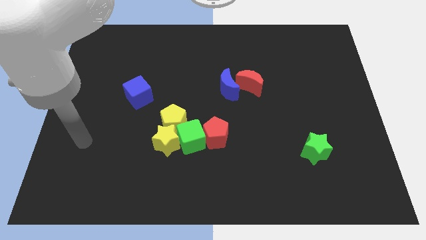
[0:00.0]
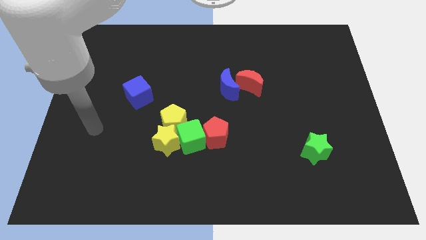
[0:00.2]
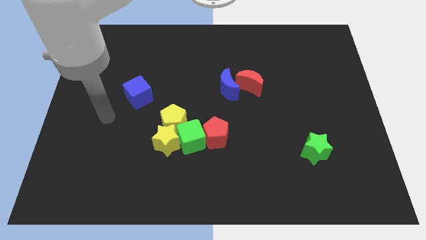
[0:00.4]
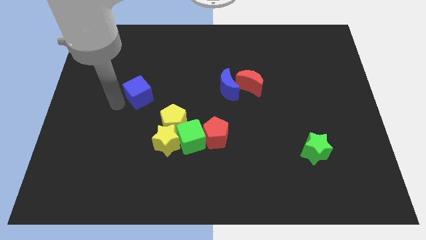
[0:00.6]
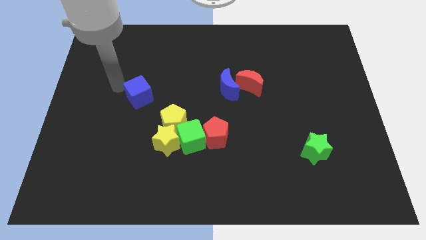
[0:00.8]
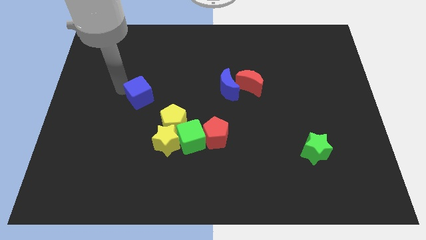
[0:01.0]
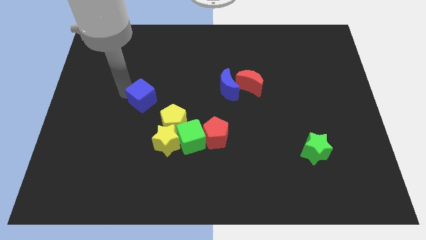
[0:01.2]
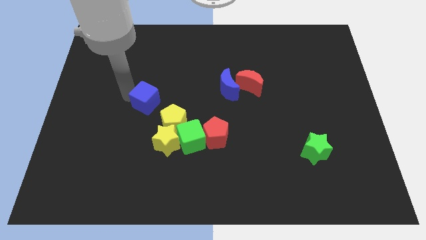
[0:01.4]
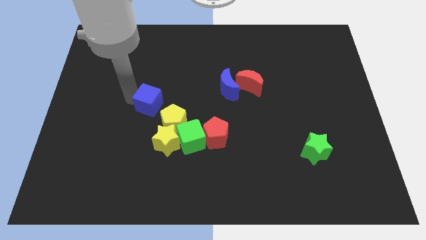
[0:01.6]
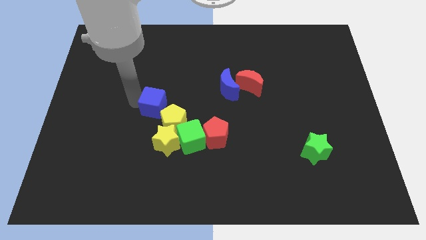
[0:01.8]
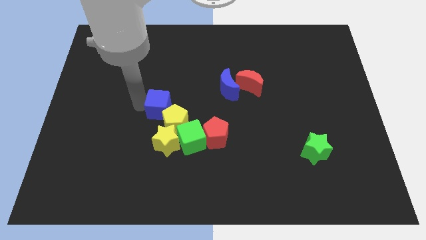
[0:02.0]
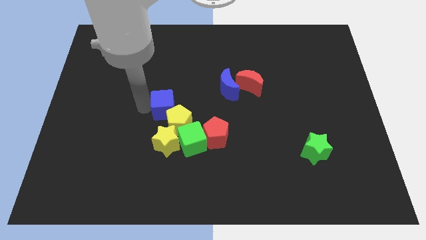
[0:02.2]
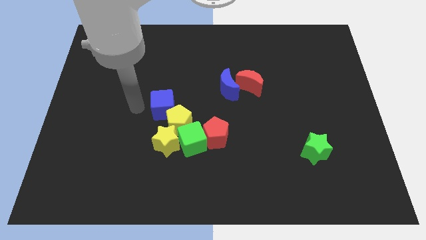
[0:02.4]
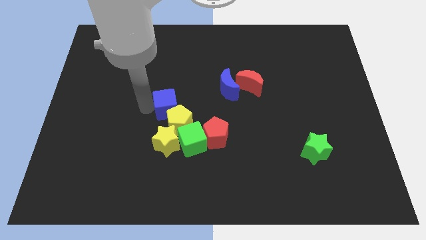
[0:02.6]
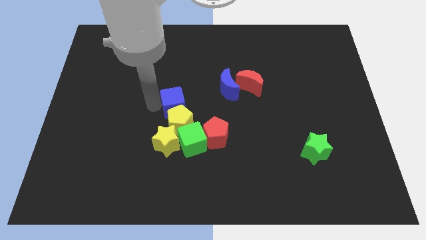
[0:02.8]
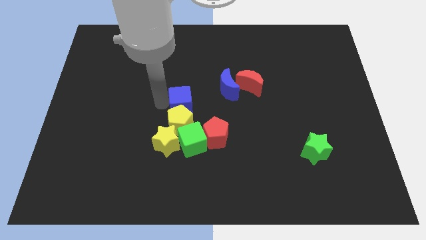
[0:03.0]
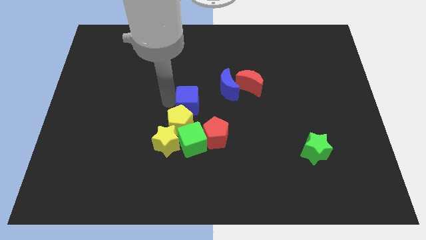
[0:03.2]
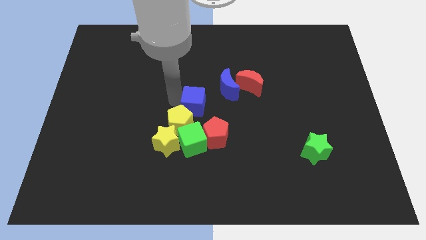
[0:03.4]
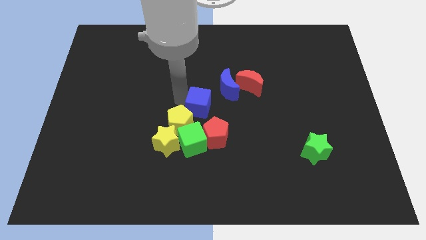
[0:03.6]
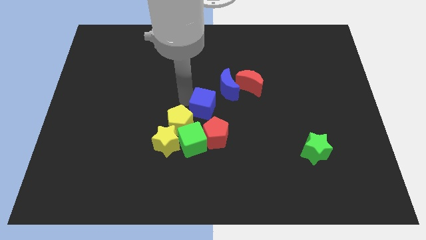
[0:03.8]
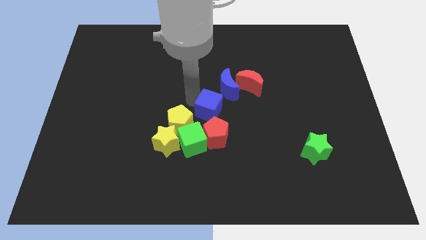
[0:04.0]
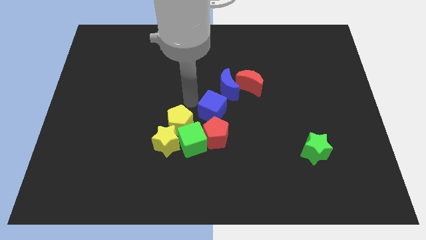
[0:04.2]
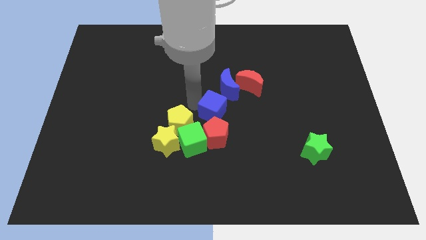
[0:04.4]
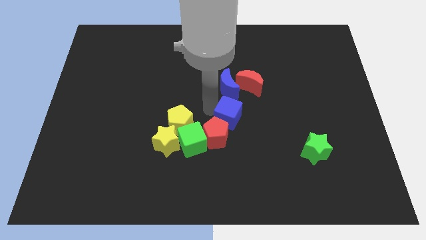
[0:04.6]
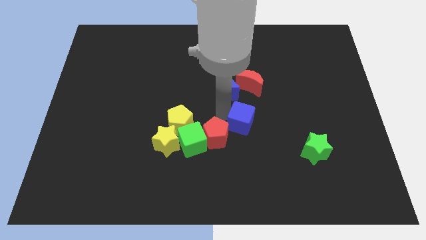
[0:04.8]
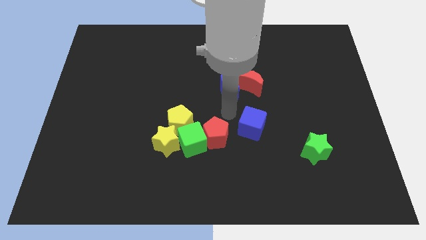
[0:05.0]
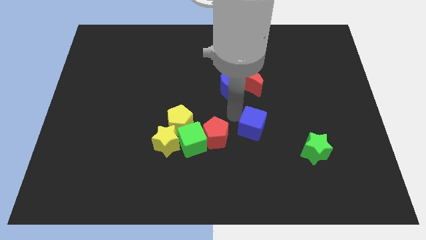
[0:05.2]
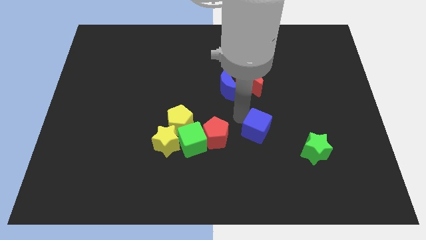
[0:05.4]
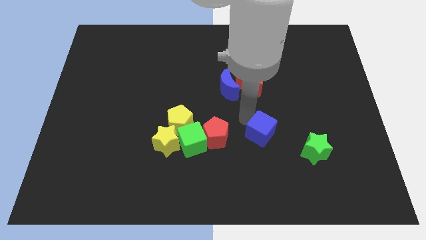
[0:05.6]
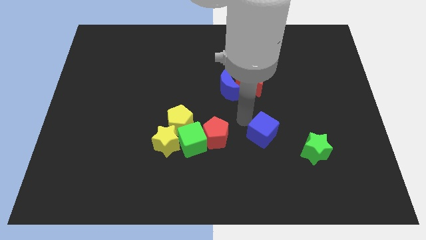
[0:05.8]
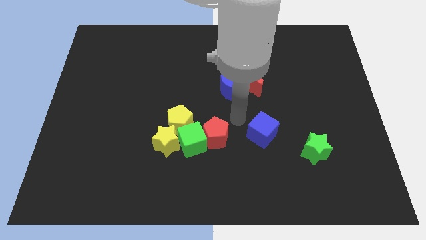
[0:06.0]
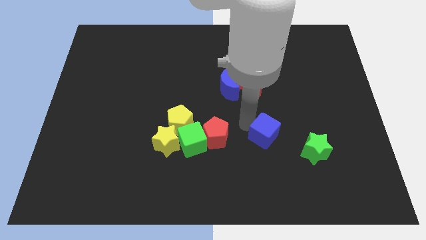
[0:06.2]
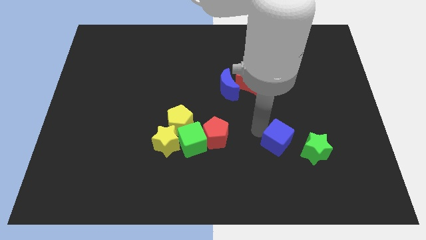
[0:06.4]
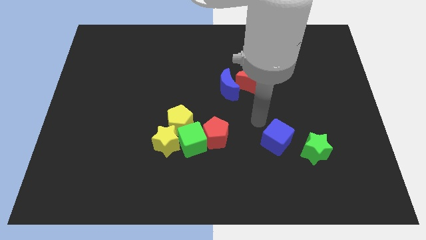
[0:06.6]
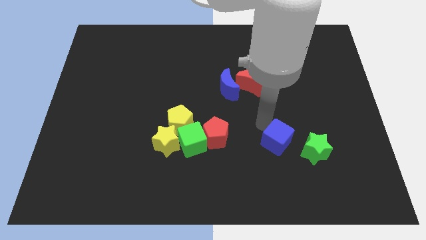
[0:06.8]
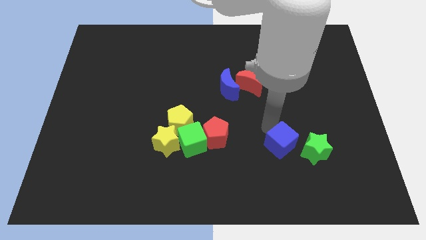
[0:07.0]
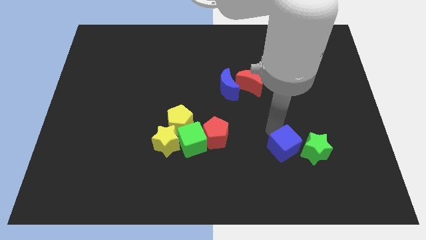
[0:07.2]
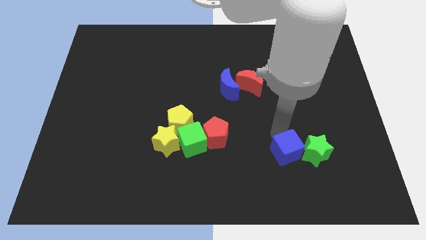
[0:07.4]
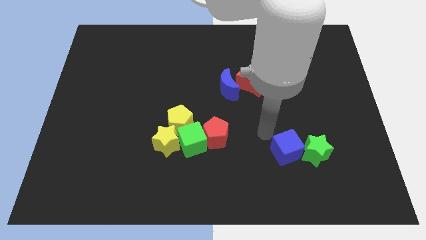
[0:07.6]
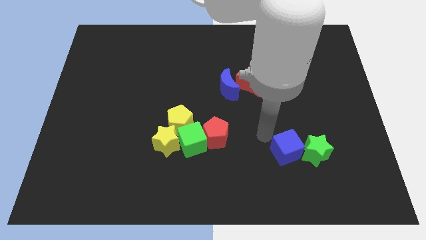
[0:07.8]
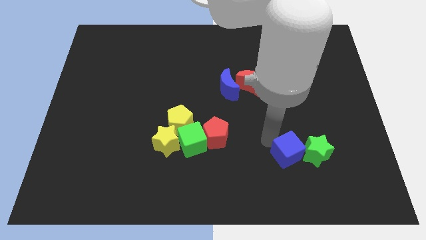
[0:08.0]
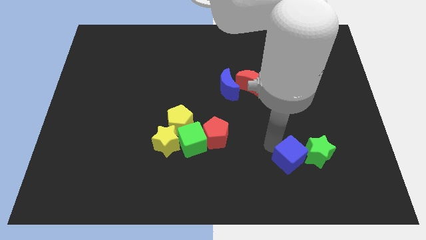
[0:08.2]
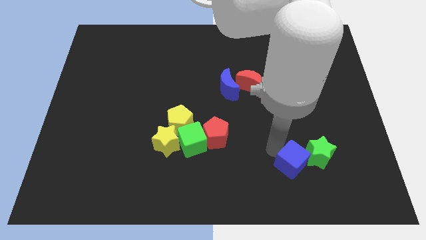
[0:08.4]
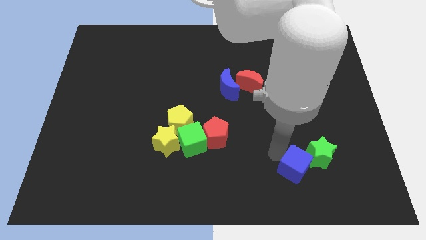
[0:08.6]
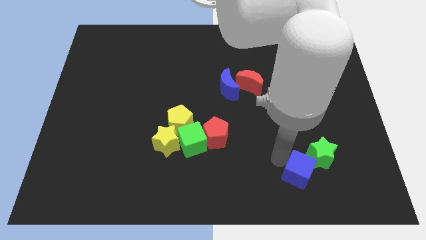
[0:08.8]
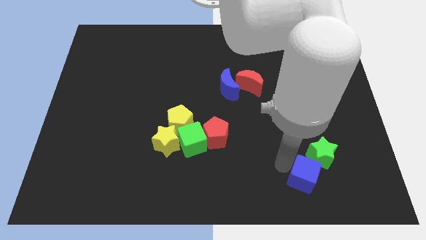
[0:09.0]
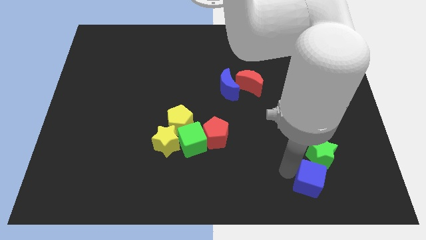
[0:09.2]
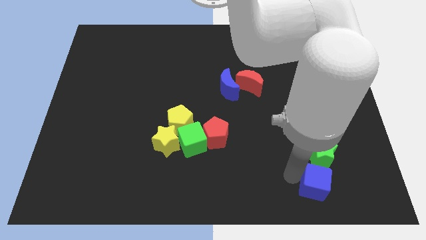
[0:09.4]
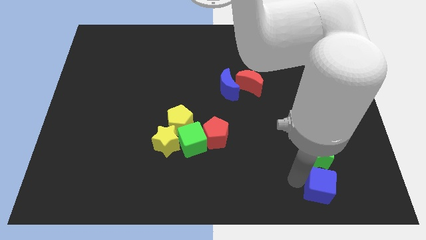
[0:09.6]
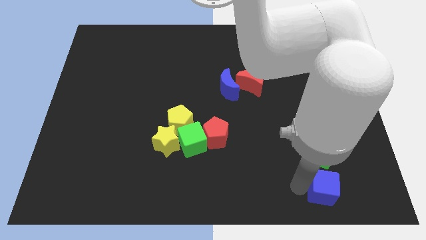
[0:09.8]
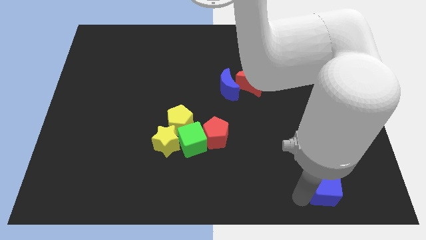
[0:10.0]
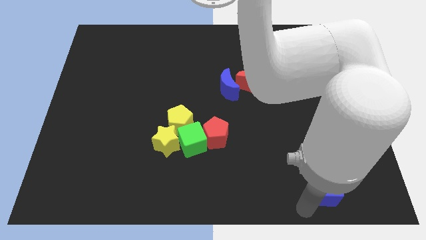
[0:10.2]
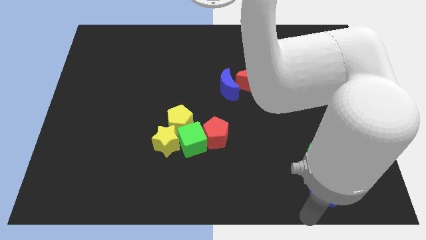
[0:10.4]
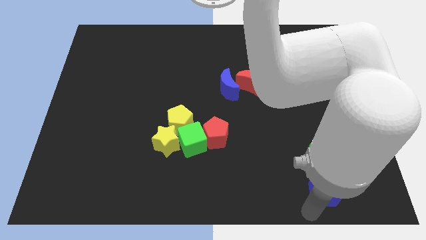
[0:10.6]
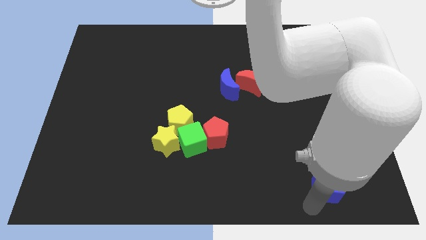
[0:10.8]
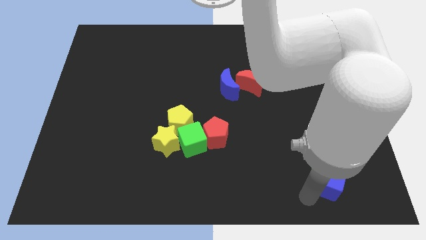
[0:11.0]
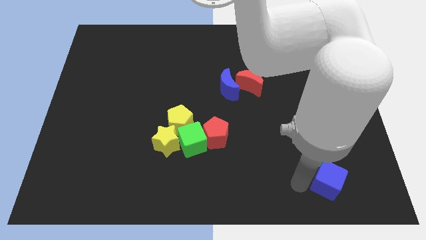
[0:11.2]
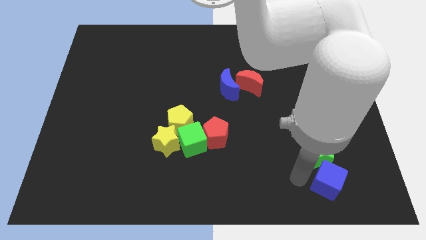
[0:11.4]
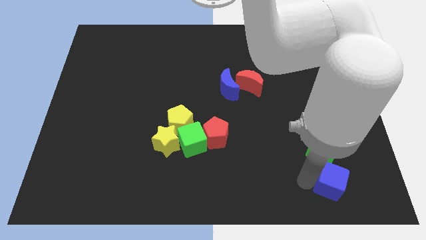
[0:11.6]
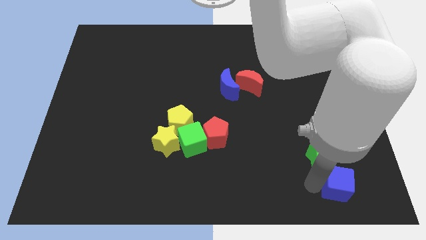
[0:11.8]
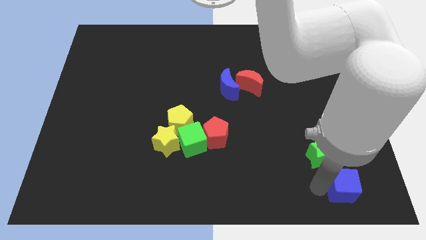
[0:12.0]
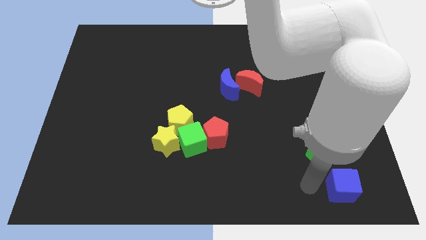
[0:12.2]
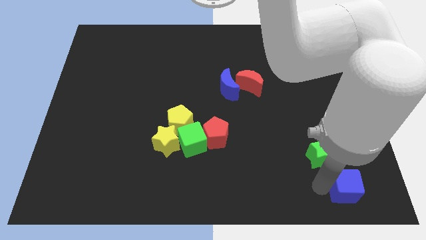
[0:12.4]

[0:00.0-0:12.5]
move the blue cube to the bottom right
